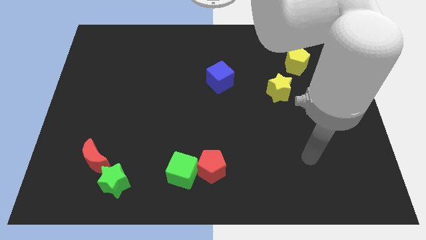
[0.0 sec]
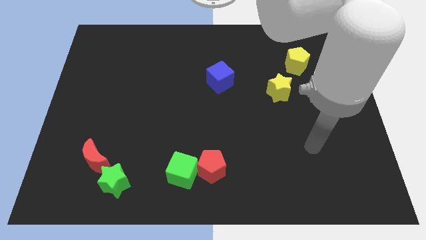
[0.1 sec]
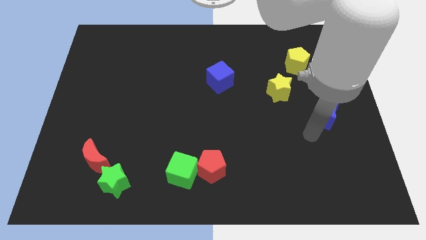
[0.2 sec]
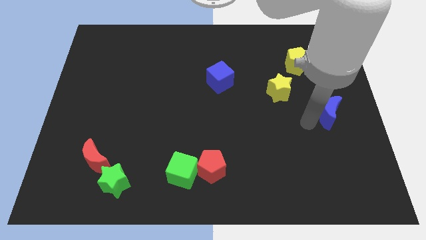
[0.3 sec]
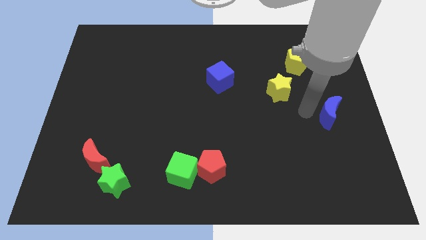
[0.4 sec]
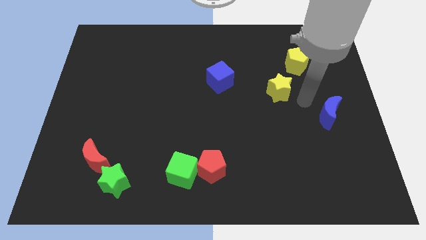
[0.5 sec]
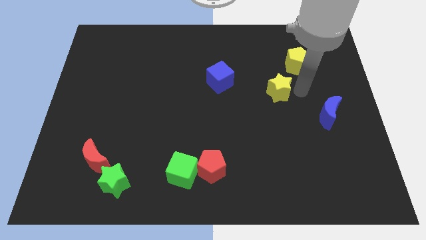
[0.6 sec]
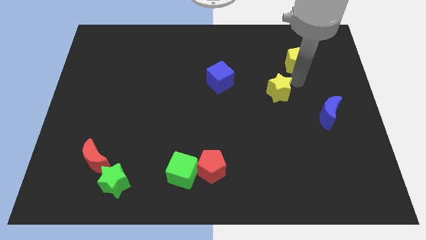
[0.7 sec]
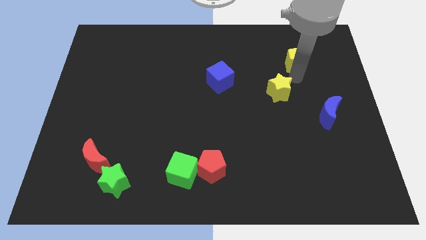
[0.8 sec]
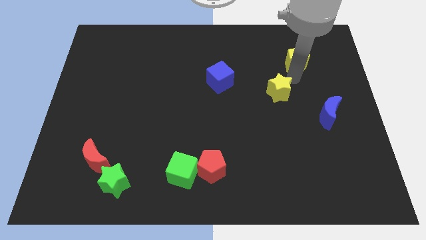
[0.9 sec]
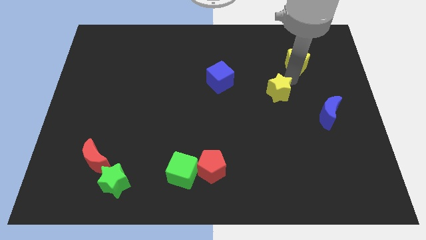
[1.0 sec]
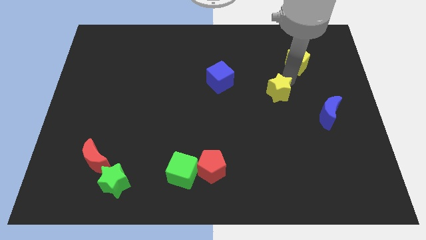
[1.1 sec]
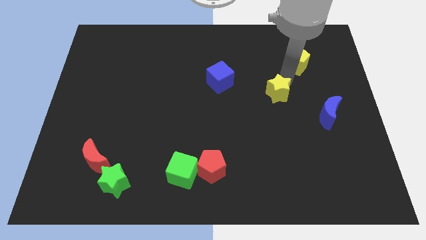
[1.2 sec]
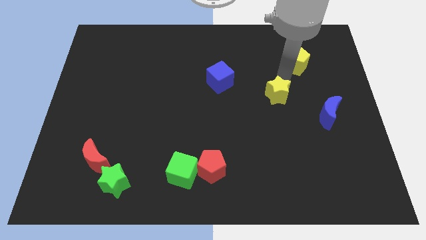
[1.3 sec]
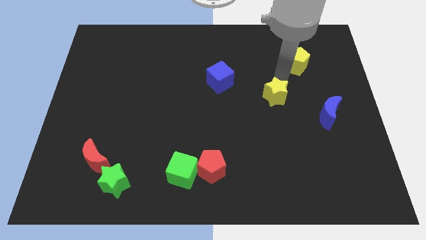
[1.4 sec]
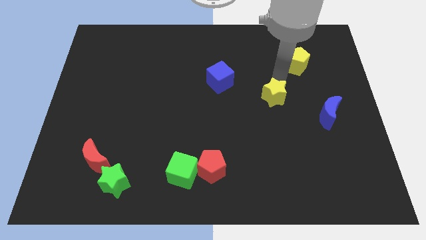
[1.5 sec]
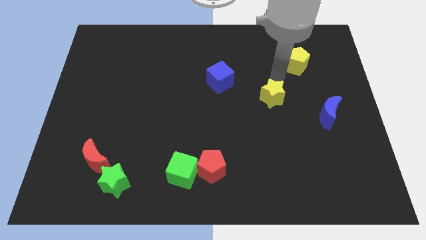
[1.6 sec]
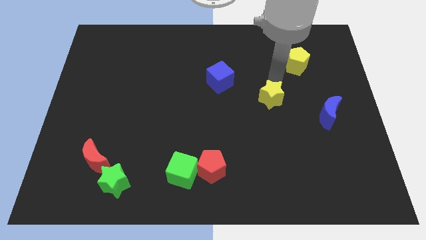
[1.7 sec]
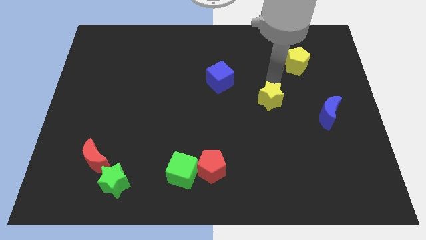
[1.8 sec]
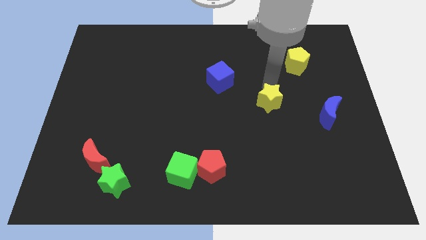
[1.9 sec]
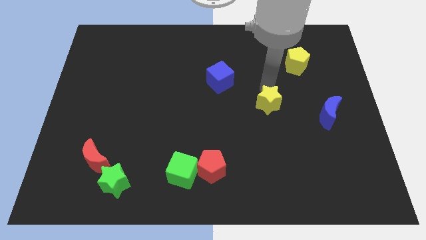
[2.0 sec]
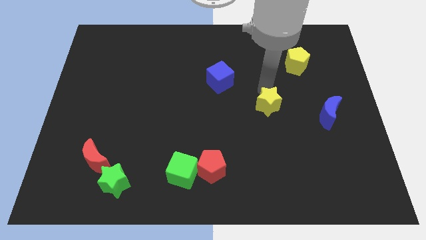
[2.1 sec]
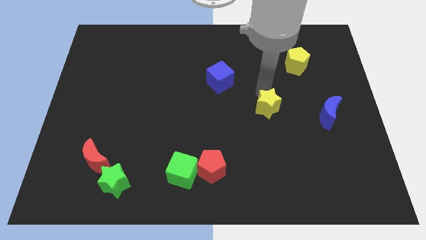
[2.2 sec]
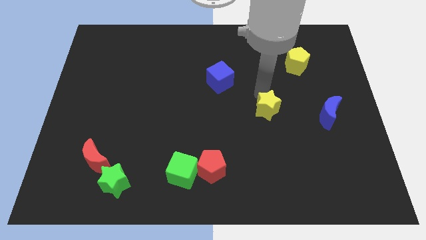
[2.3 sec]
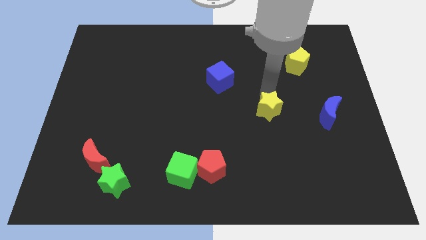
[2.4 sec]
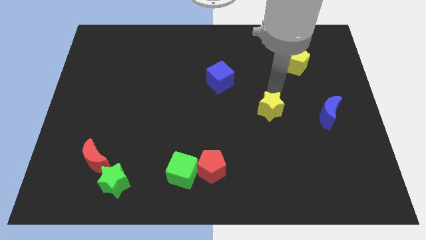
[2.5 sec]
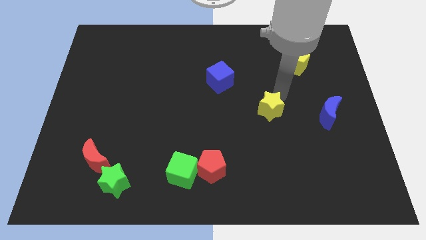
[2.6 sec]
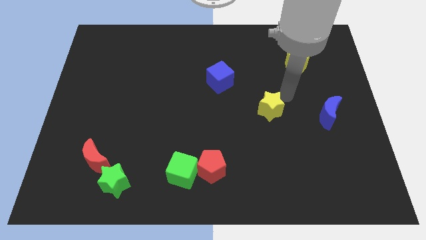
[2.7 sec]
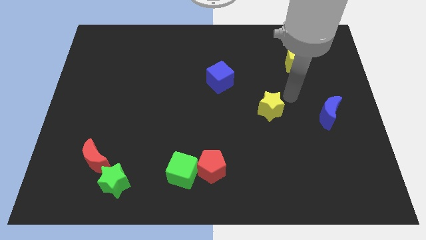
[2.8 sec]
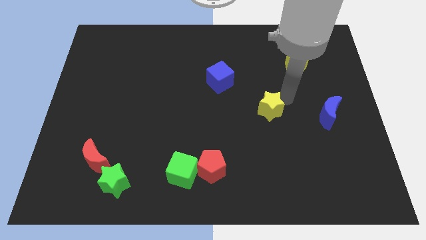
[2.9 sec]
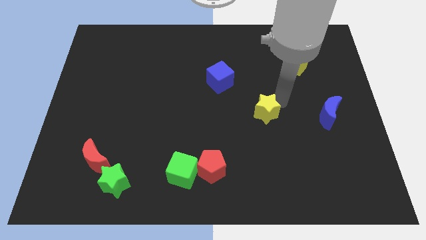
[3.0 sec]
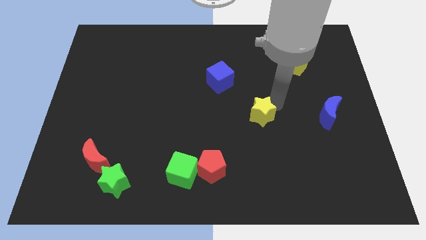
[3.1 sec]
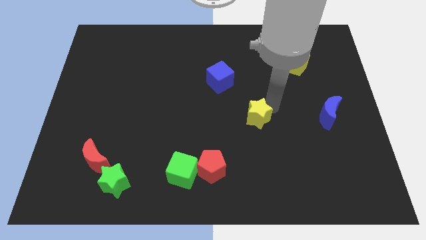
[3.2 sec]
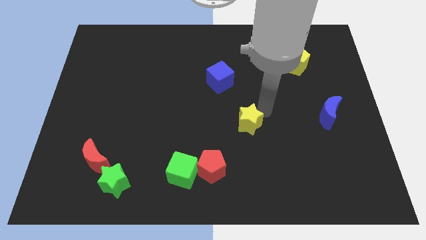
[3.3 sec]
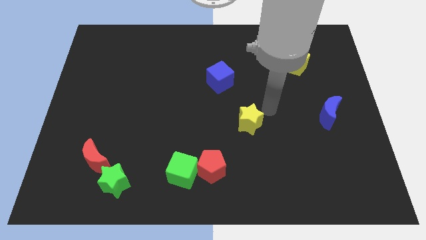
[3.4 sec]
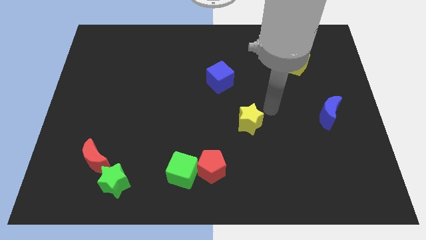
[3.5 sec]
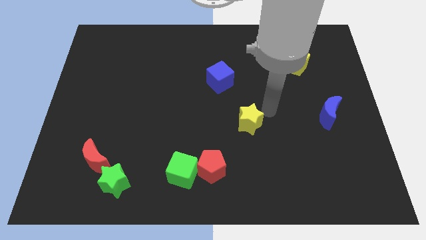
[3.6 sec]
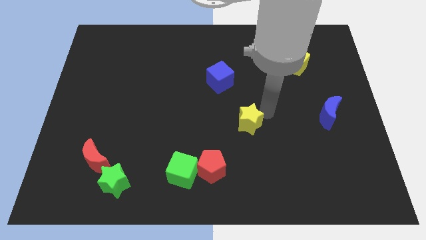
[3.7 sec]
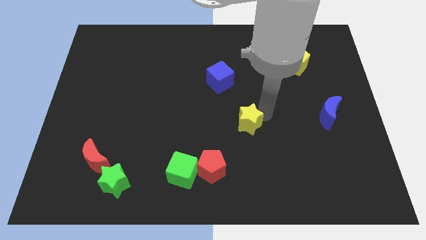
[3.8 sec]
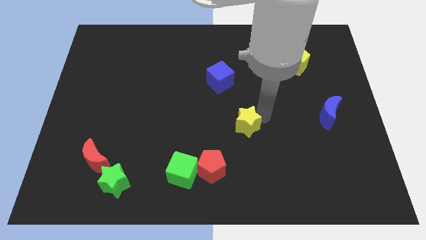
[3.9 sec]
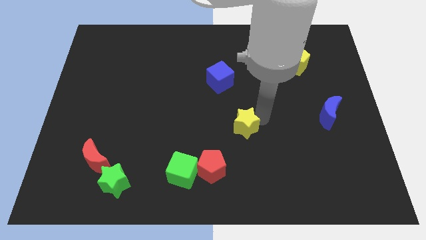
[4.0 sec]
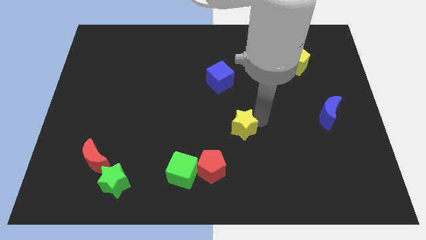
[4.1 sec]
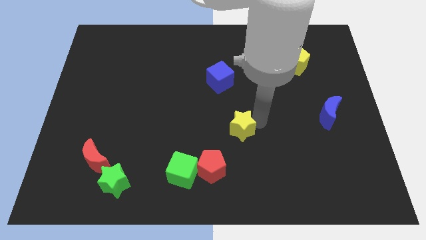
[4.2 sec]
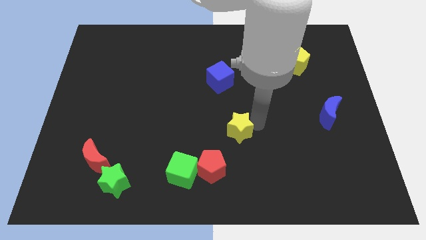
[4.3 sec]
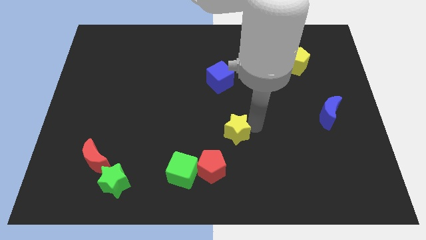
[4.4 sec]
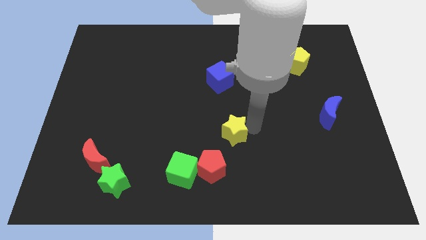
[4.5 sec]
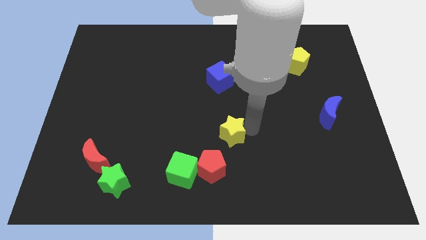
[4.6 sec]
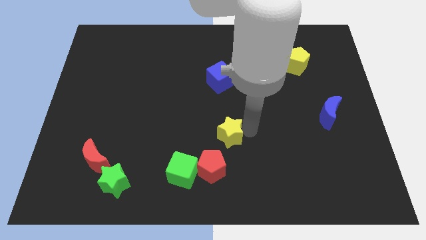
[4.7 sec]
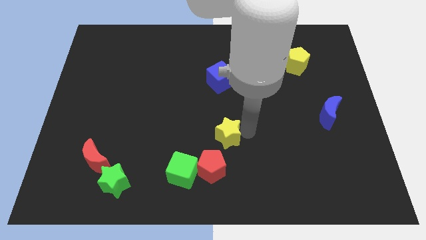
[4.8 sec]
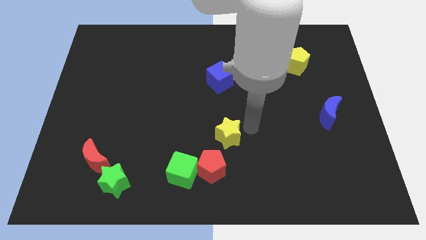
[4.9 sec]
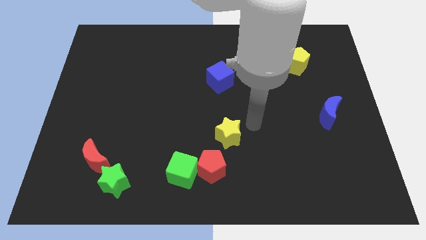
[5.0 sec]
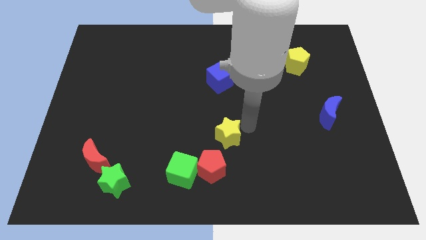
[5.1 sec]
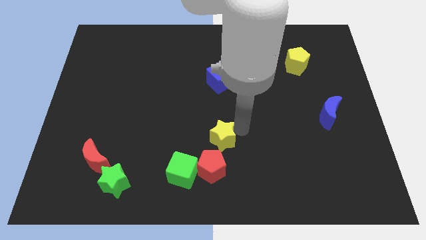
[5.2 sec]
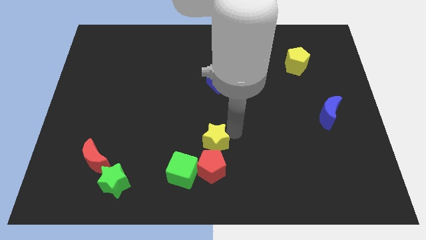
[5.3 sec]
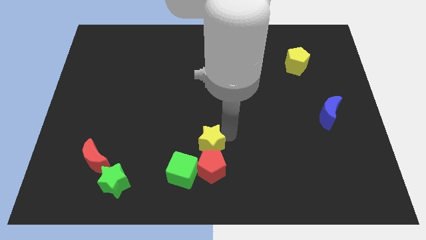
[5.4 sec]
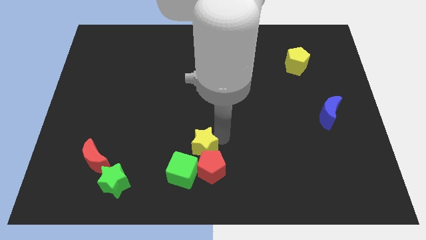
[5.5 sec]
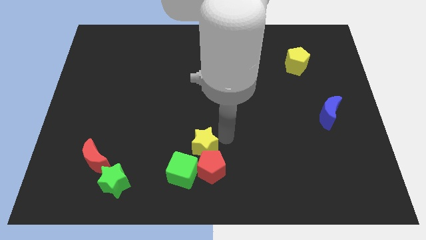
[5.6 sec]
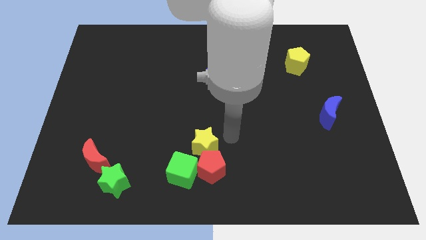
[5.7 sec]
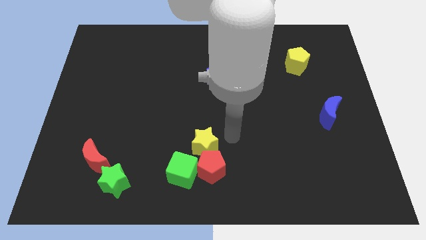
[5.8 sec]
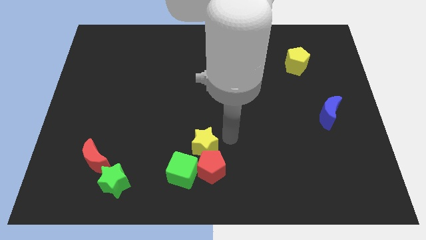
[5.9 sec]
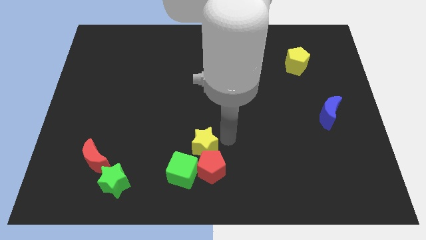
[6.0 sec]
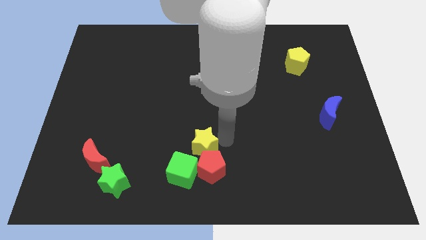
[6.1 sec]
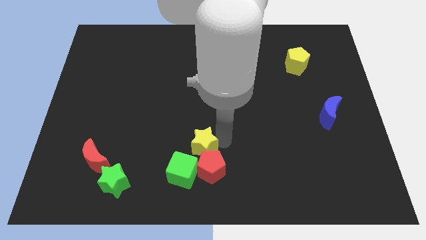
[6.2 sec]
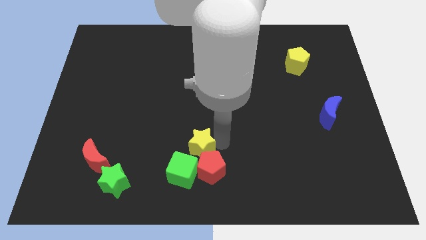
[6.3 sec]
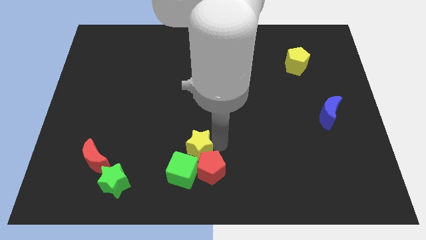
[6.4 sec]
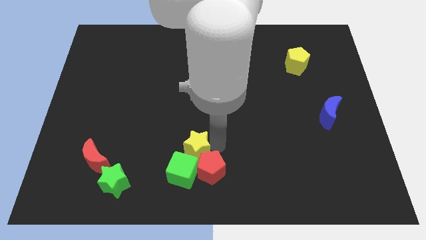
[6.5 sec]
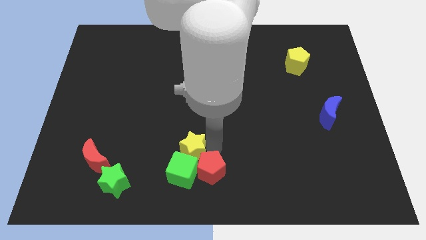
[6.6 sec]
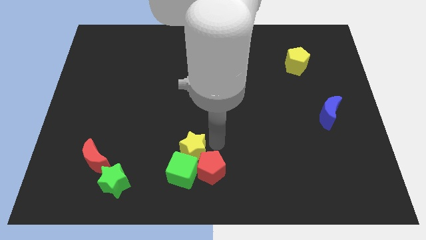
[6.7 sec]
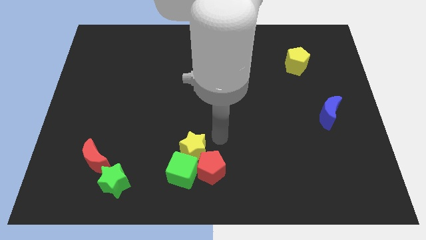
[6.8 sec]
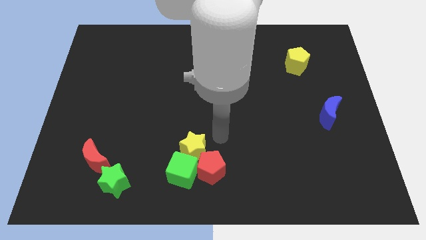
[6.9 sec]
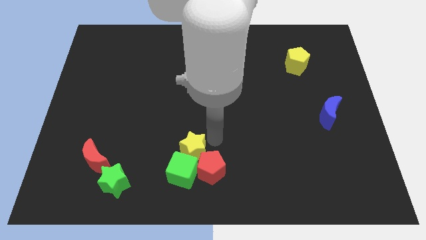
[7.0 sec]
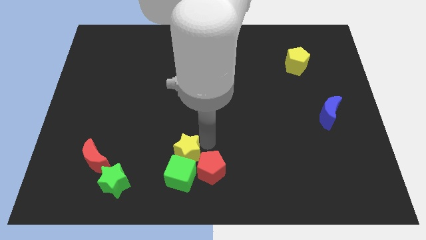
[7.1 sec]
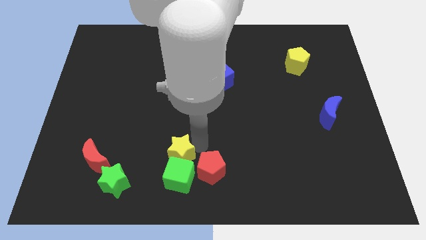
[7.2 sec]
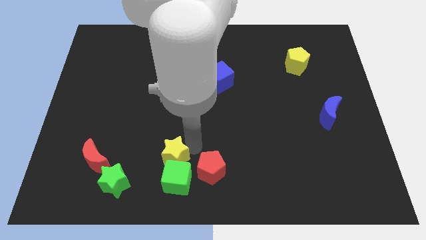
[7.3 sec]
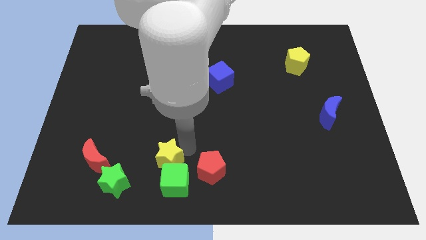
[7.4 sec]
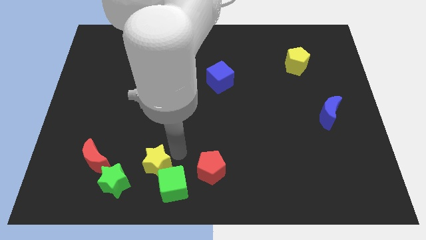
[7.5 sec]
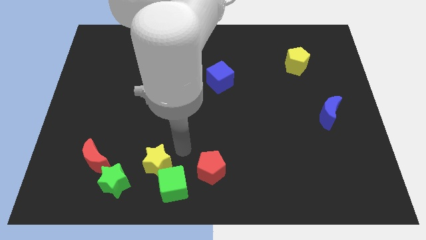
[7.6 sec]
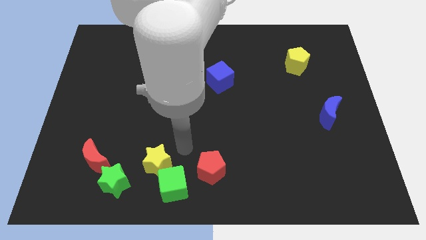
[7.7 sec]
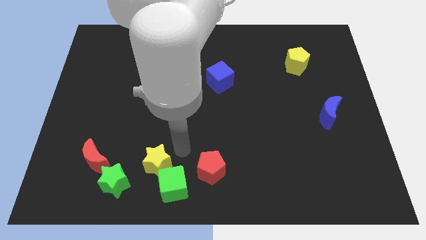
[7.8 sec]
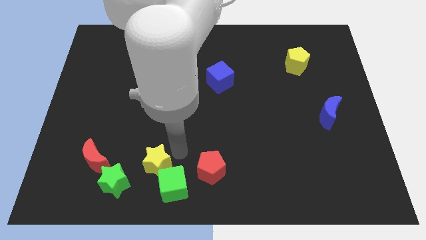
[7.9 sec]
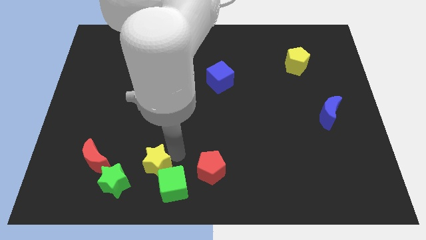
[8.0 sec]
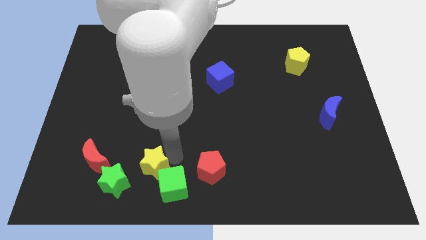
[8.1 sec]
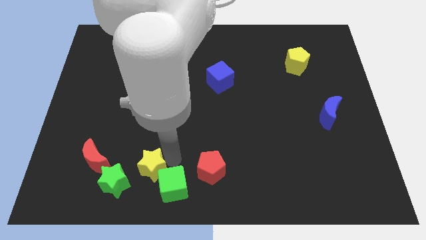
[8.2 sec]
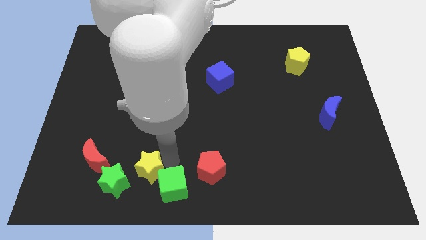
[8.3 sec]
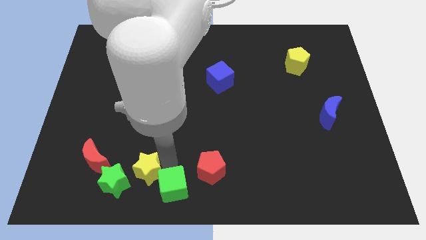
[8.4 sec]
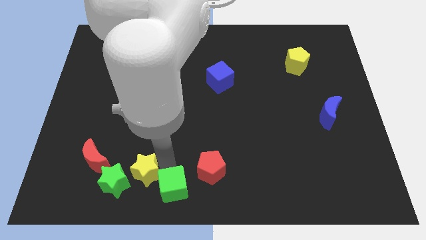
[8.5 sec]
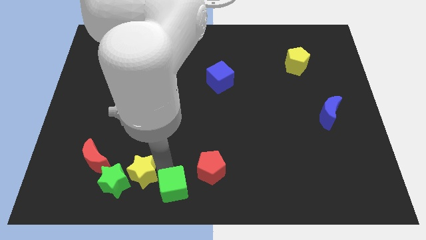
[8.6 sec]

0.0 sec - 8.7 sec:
move the yellow star next to the green star
